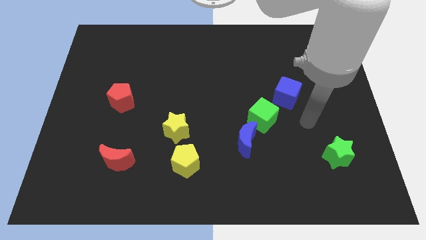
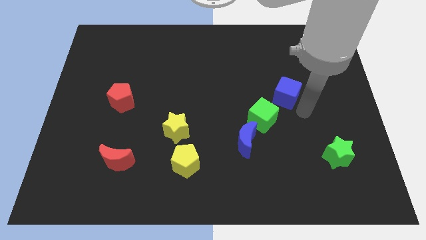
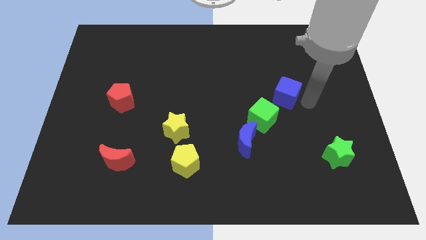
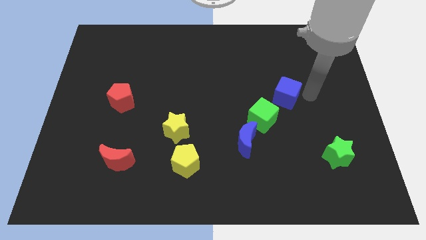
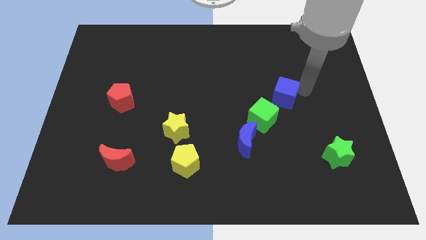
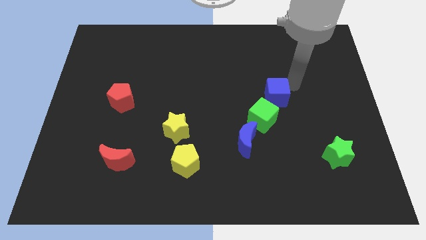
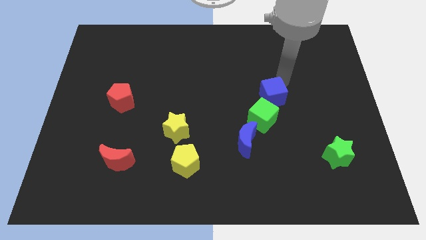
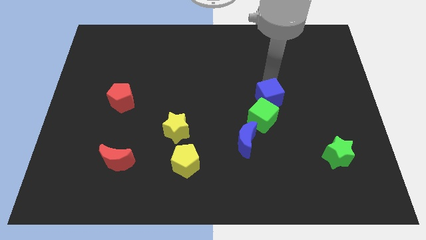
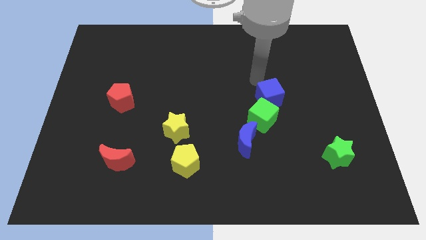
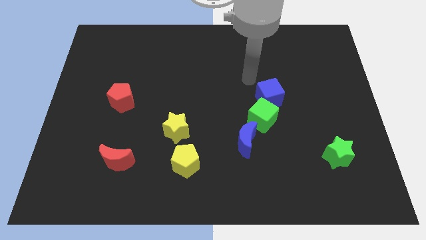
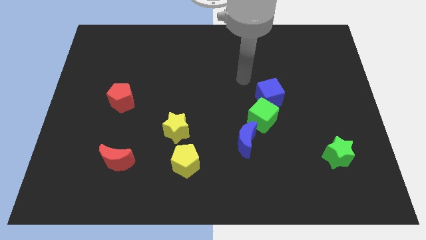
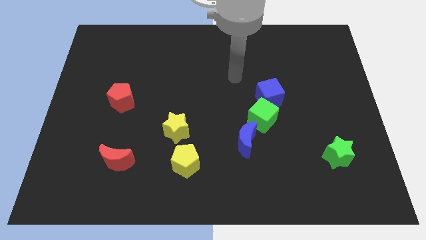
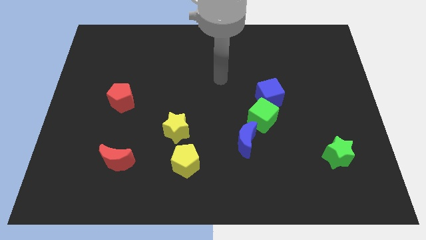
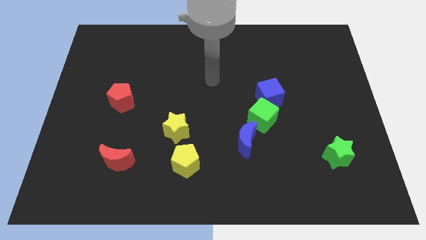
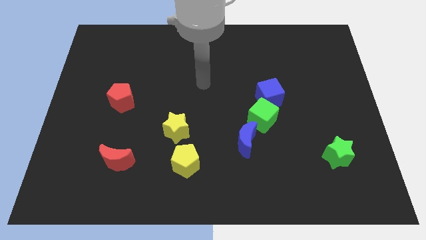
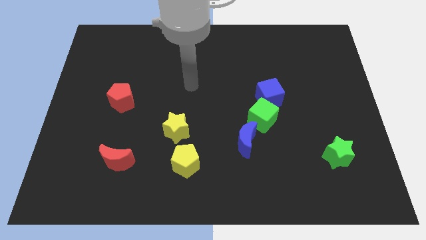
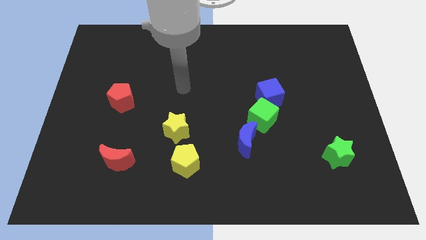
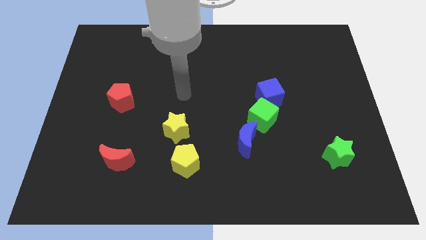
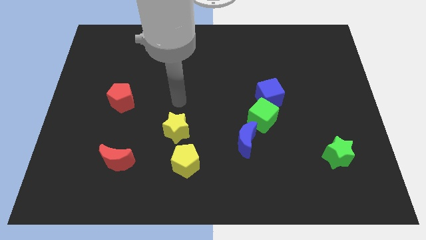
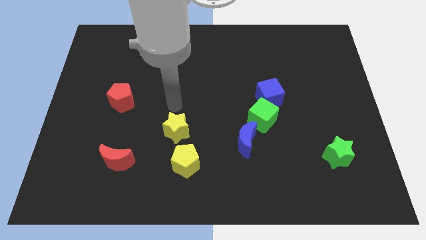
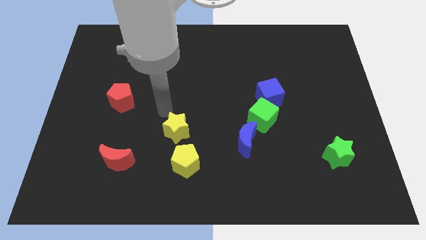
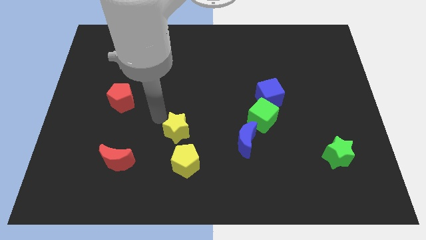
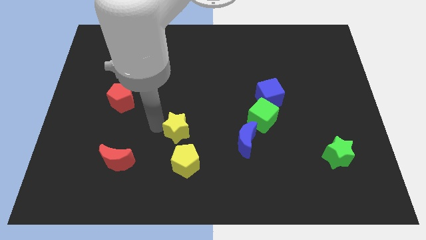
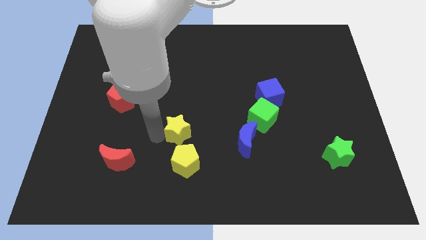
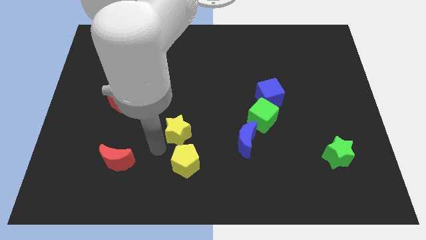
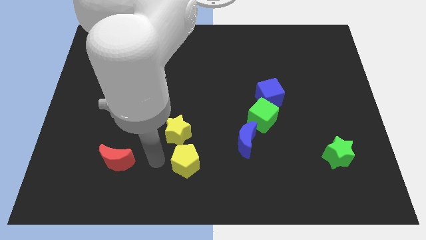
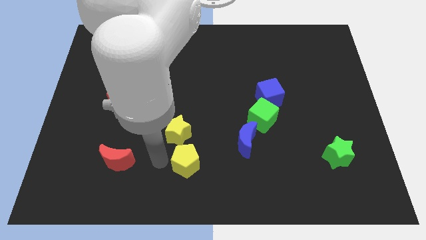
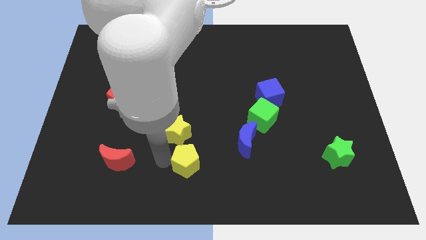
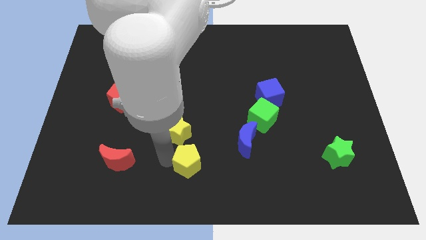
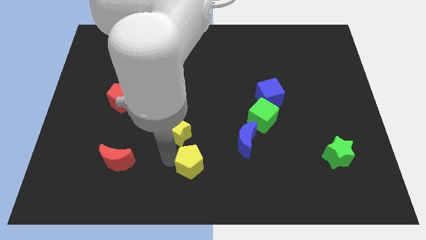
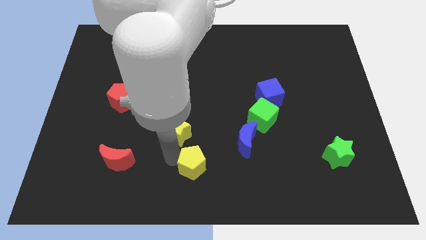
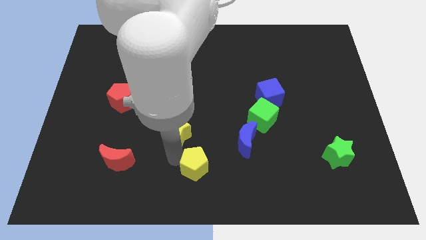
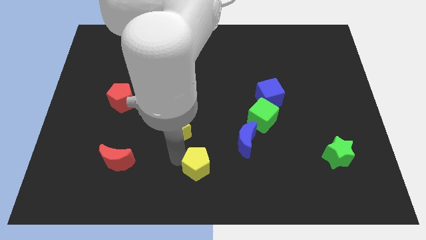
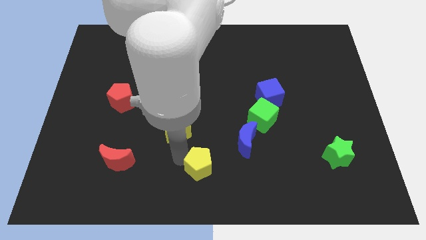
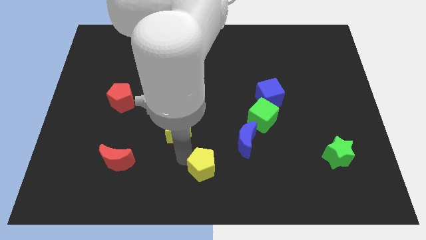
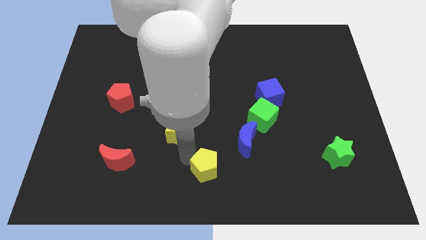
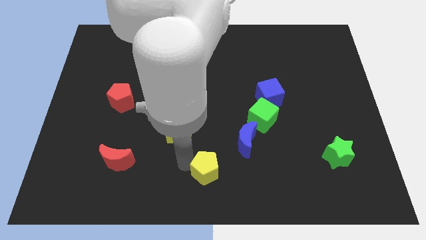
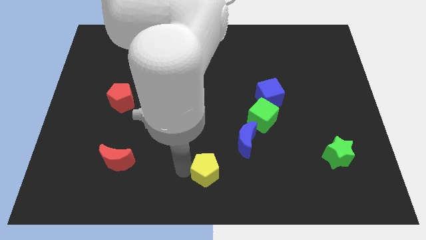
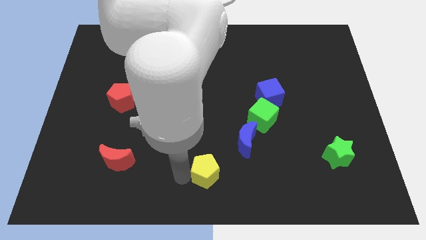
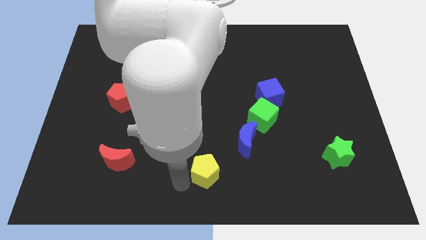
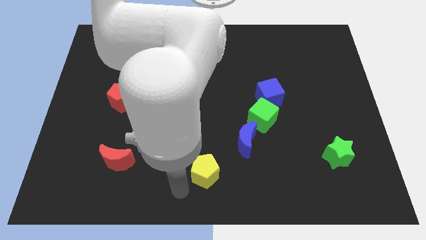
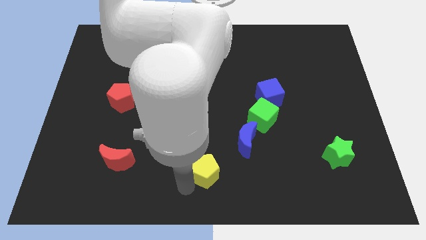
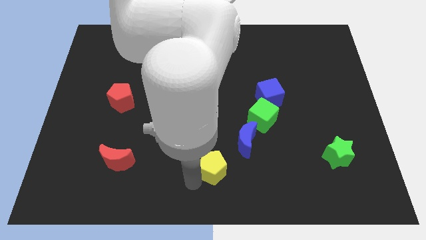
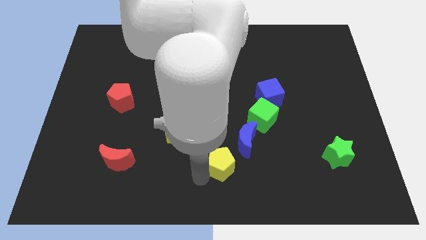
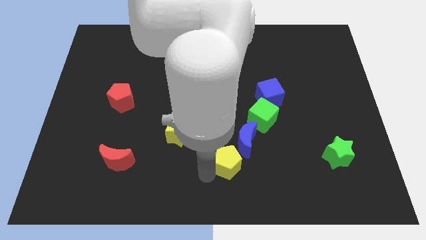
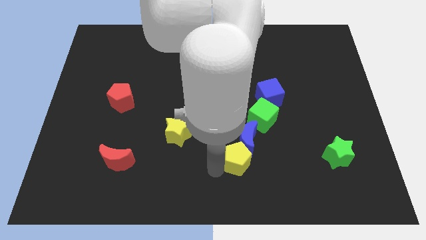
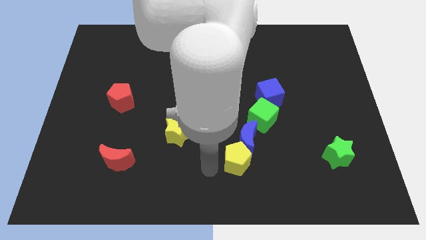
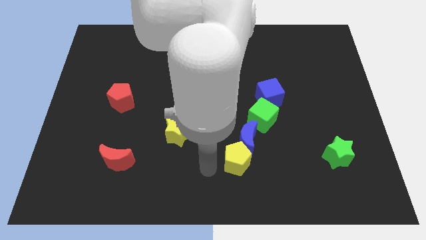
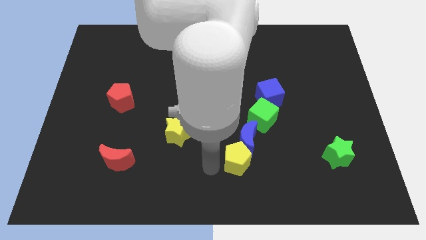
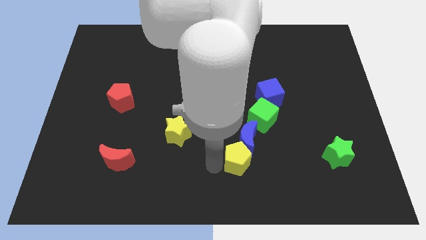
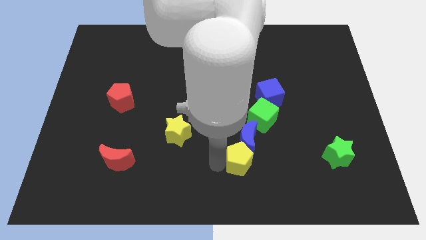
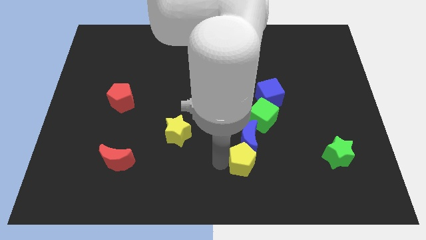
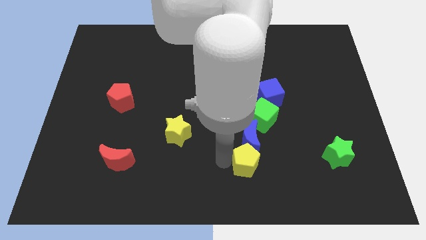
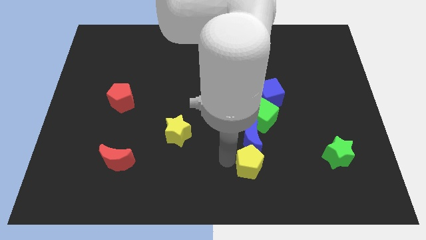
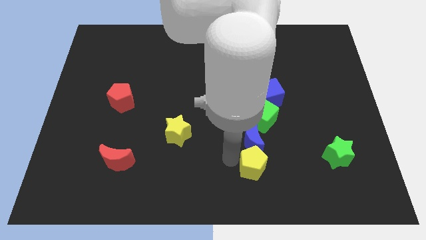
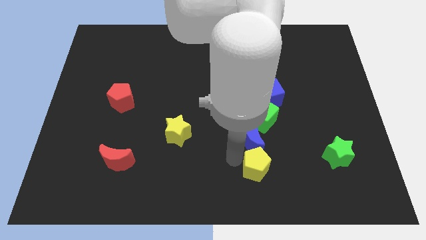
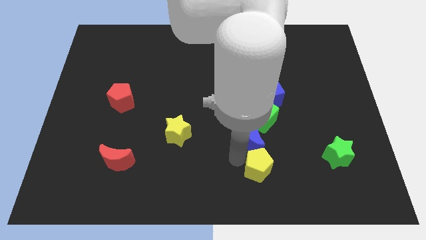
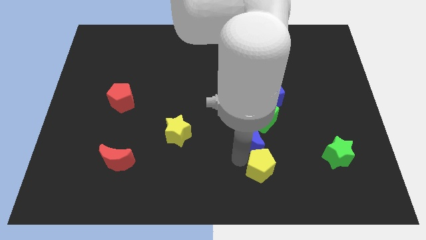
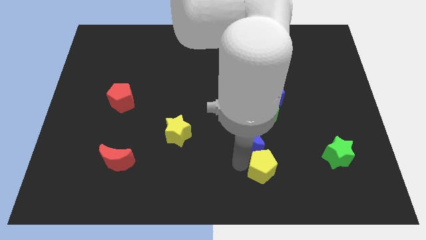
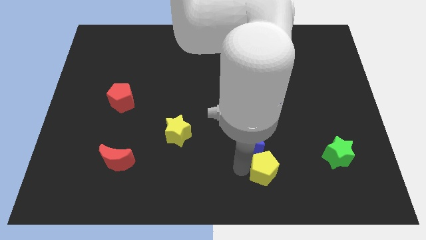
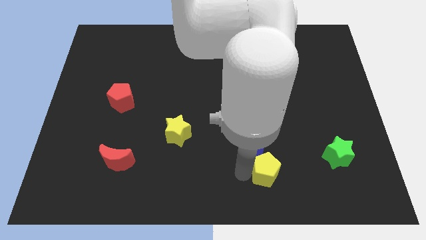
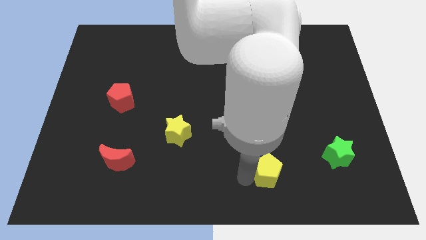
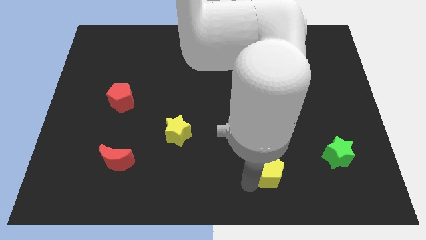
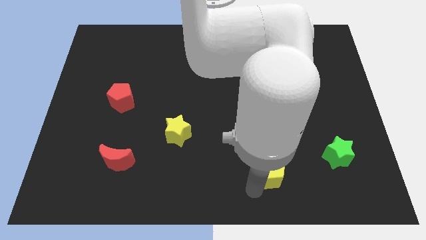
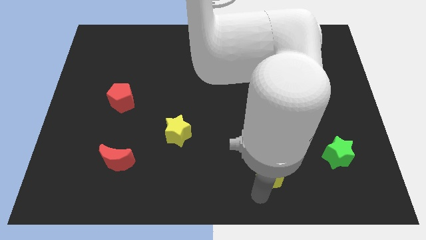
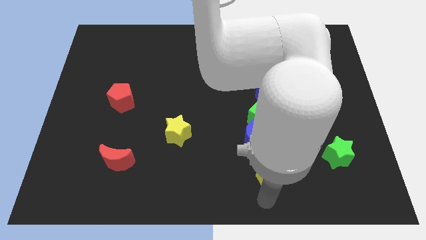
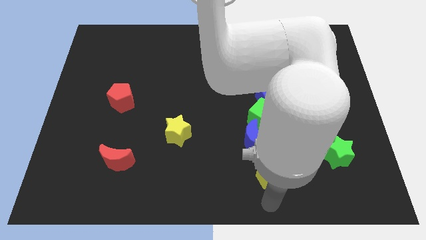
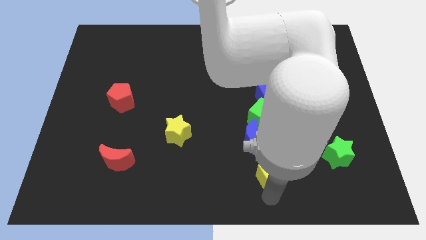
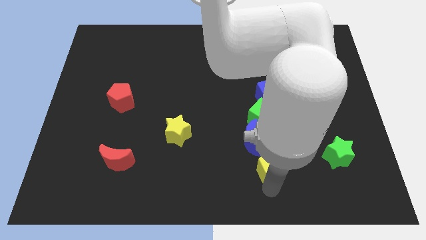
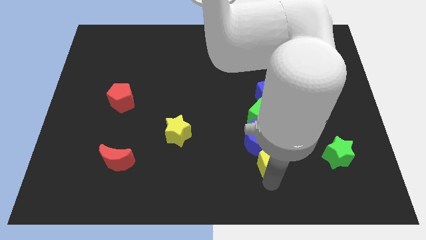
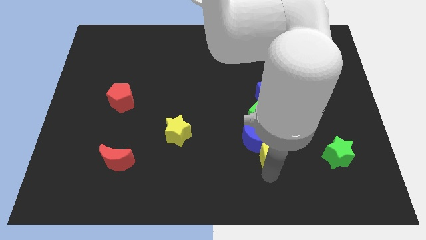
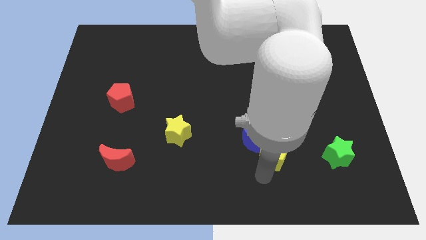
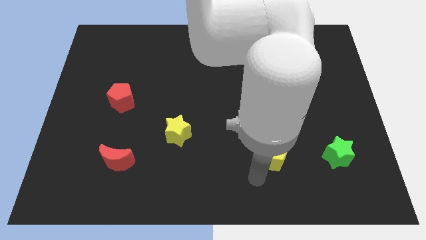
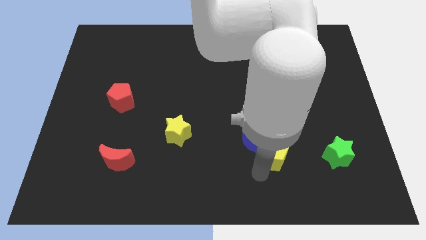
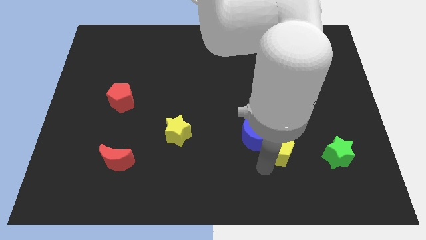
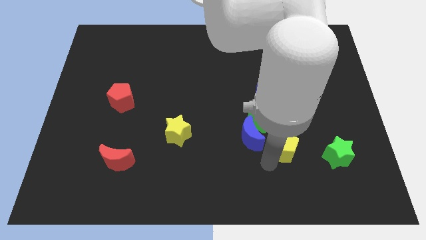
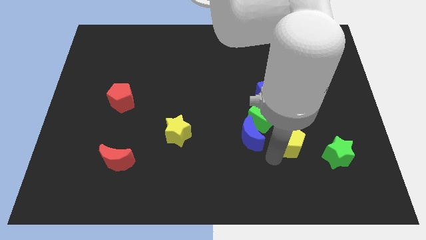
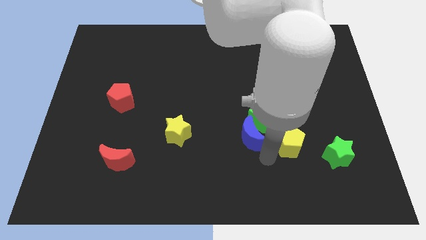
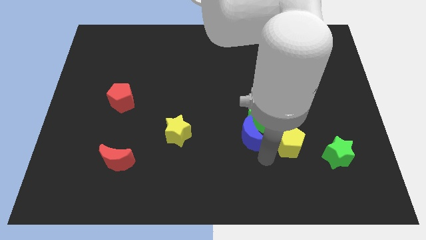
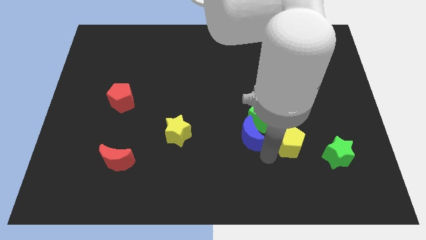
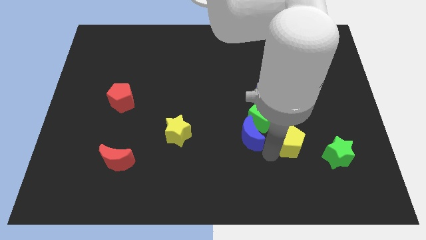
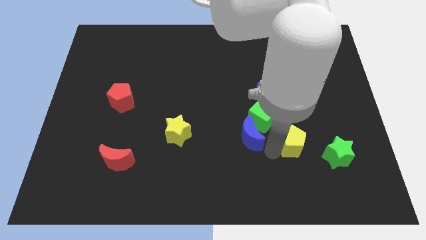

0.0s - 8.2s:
move the yellow pentagon to the top left of the green star
